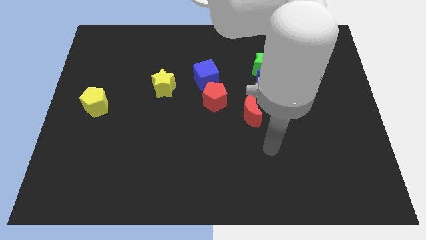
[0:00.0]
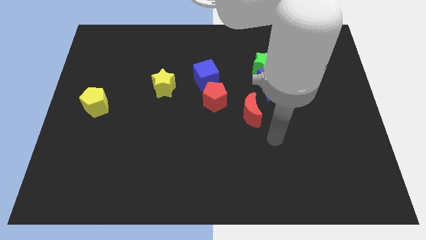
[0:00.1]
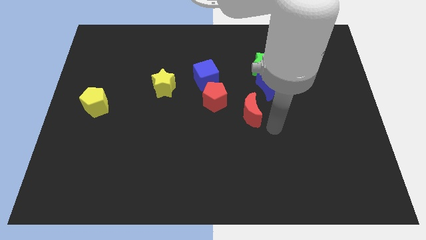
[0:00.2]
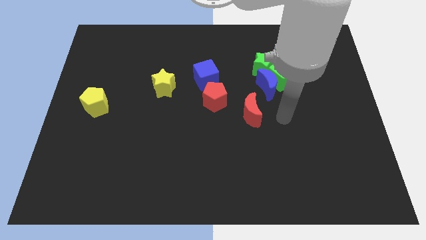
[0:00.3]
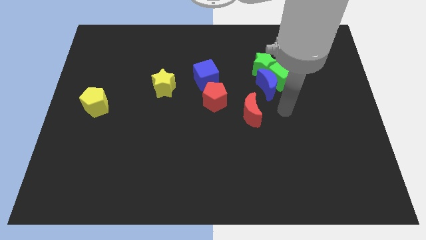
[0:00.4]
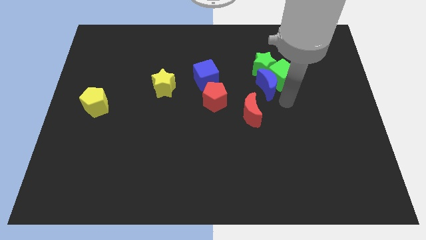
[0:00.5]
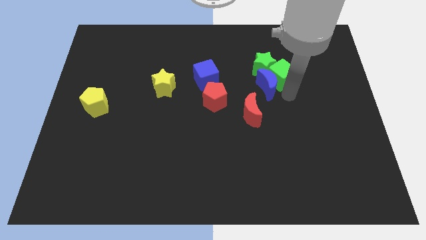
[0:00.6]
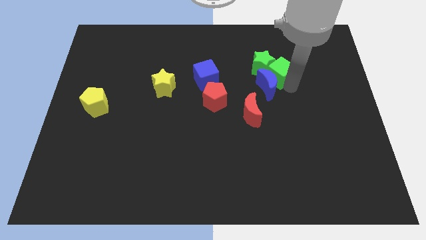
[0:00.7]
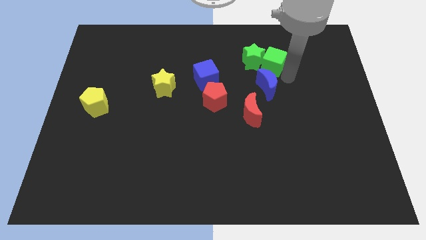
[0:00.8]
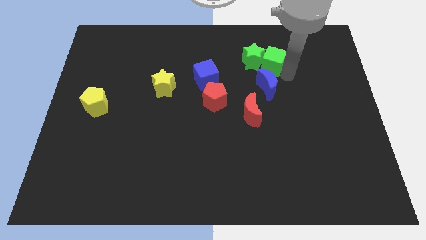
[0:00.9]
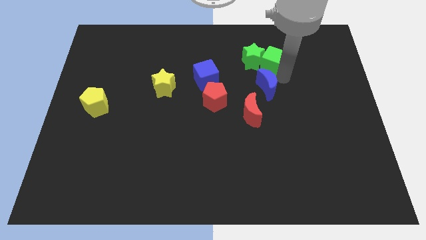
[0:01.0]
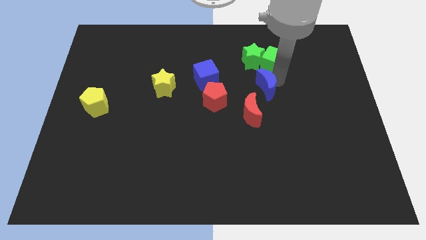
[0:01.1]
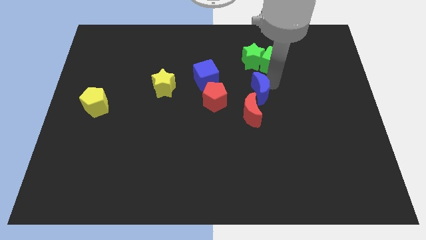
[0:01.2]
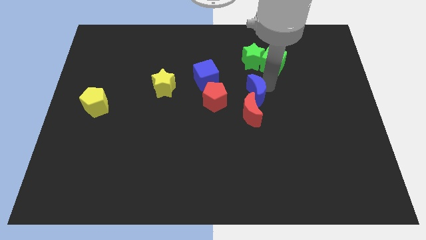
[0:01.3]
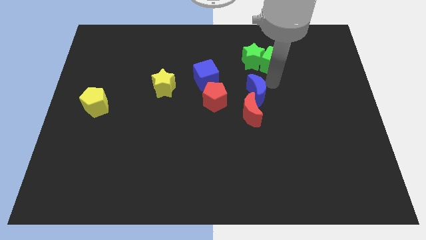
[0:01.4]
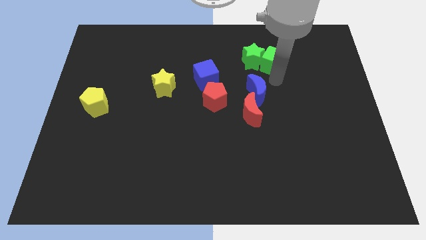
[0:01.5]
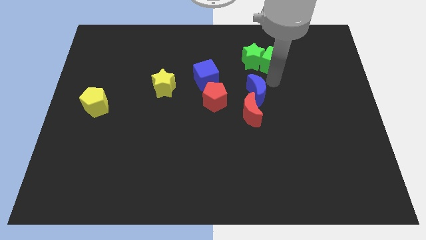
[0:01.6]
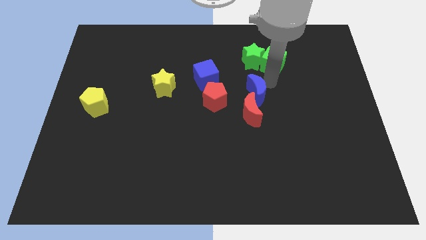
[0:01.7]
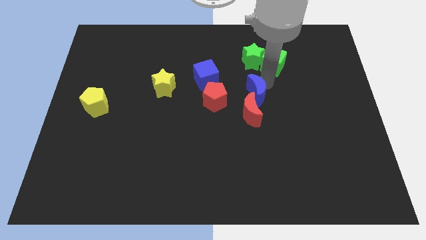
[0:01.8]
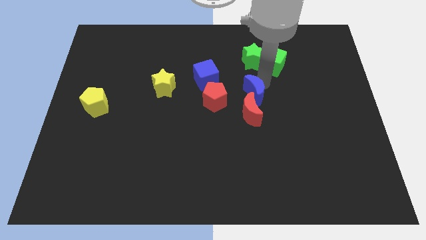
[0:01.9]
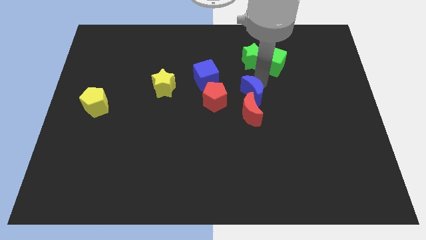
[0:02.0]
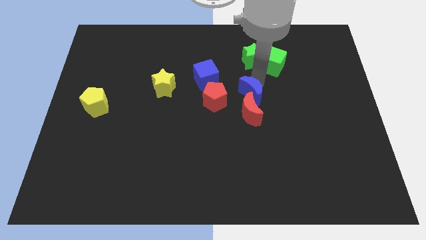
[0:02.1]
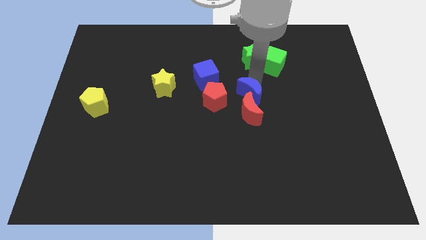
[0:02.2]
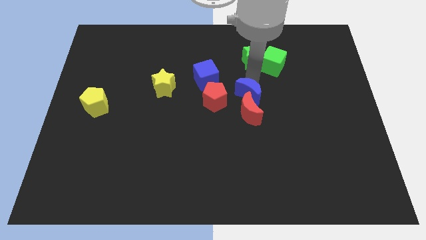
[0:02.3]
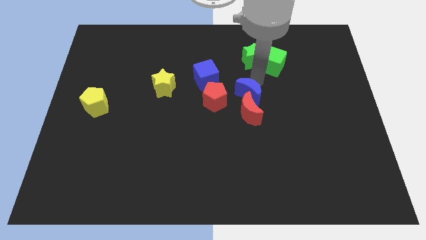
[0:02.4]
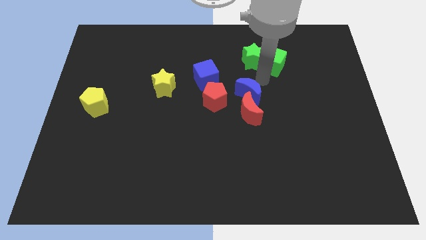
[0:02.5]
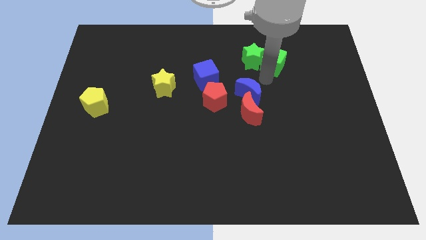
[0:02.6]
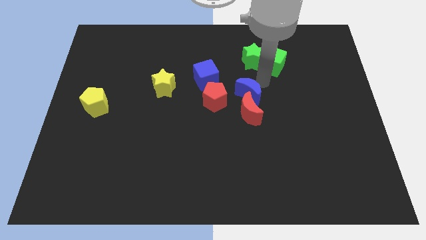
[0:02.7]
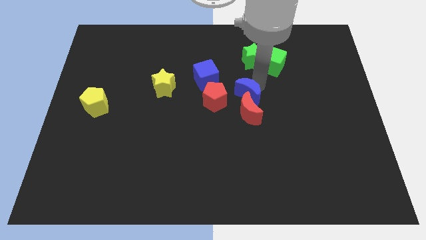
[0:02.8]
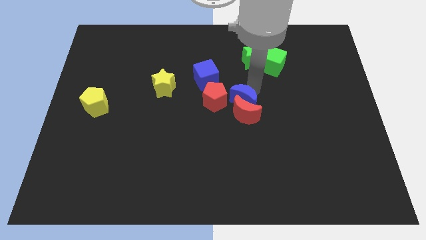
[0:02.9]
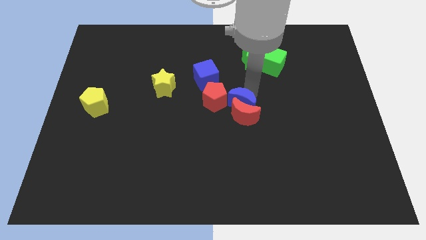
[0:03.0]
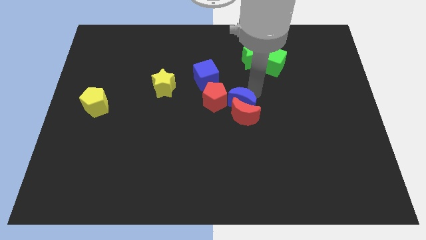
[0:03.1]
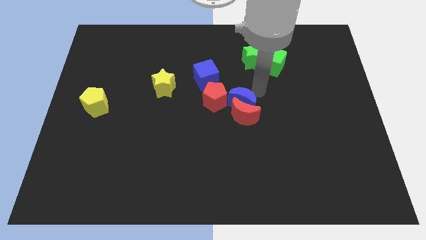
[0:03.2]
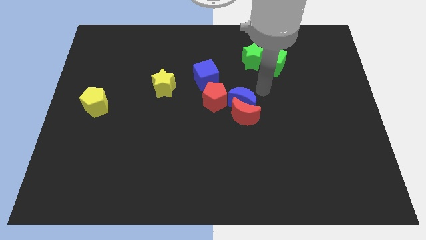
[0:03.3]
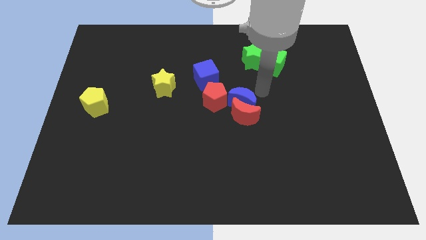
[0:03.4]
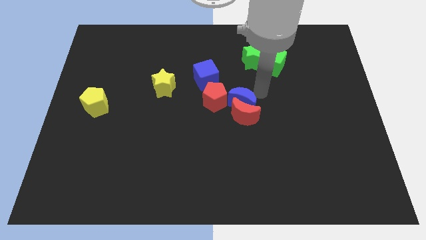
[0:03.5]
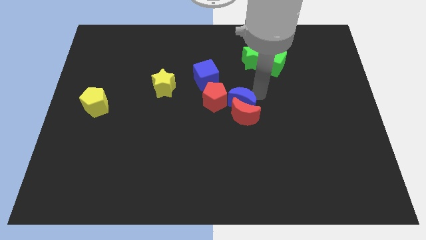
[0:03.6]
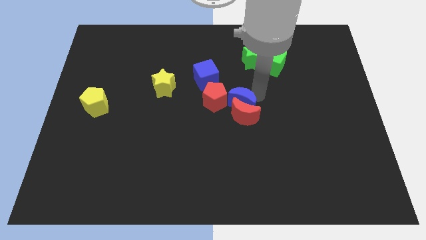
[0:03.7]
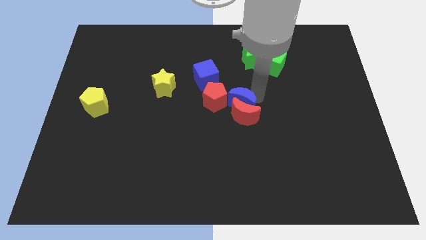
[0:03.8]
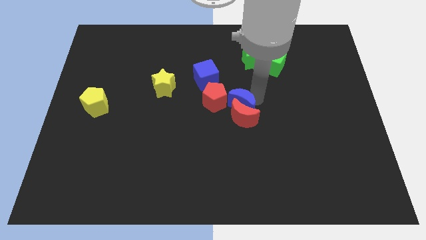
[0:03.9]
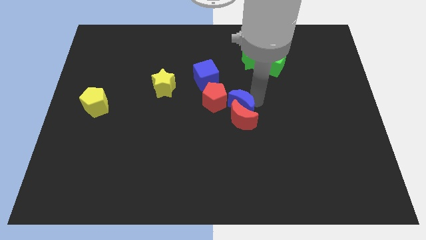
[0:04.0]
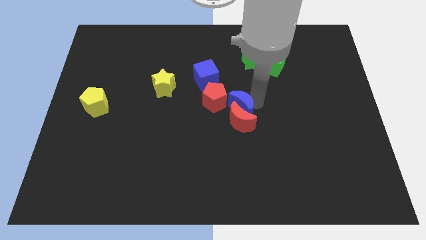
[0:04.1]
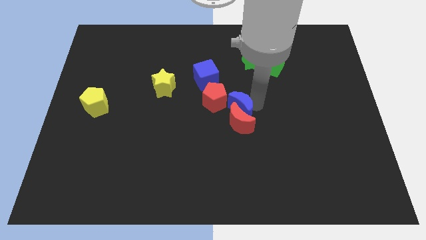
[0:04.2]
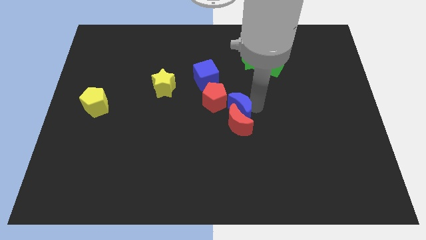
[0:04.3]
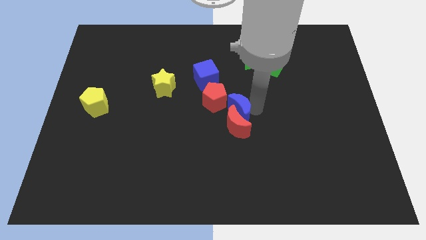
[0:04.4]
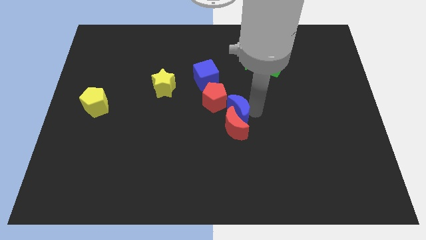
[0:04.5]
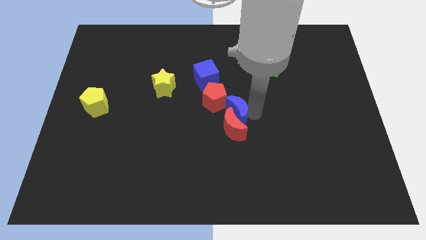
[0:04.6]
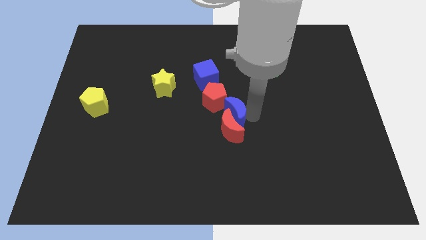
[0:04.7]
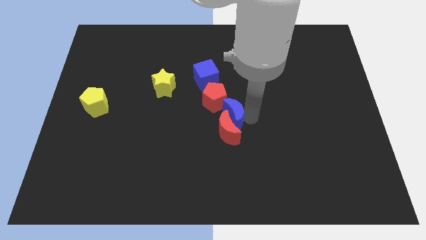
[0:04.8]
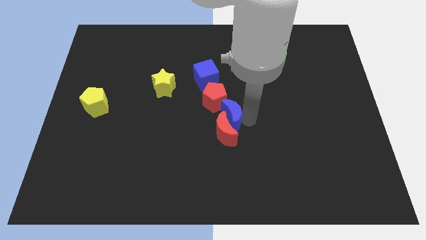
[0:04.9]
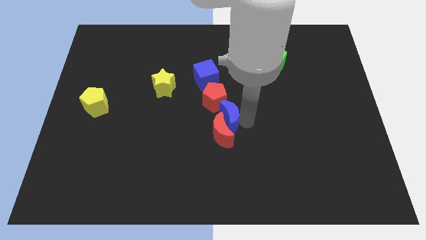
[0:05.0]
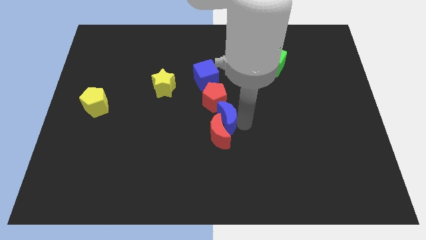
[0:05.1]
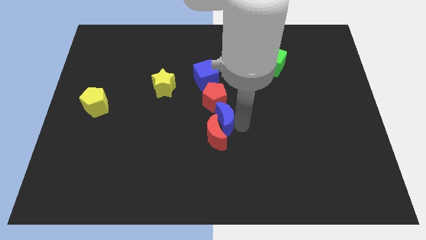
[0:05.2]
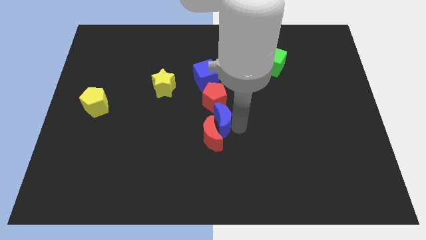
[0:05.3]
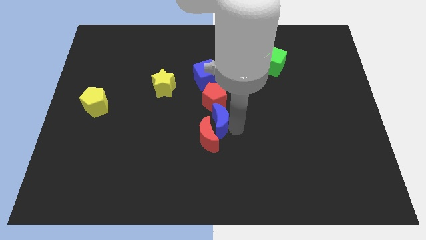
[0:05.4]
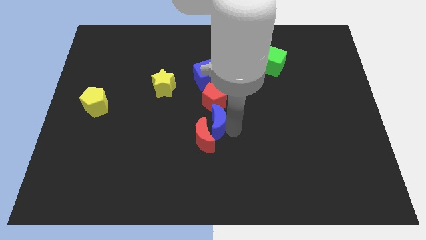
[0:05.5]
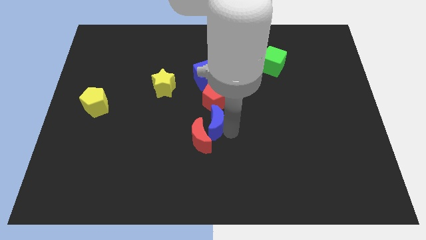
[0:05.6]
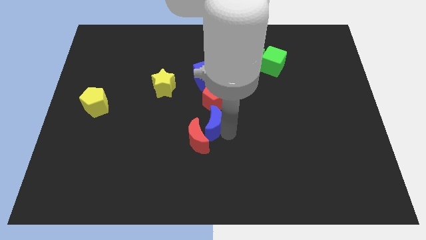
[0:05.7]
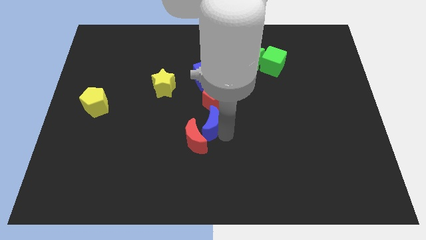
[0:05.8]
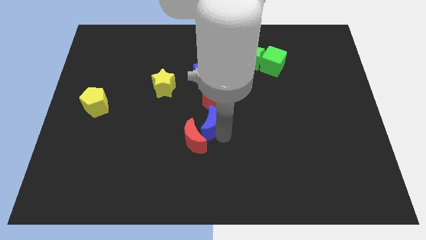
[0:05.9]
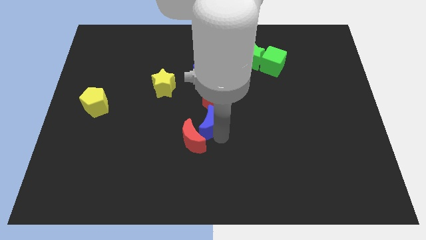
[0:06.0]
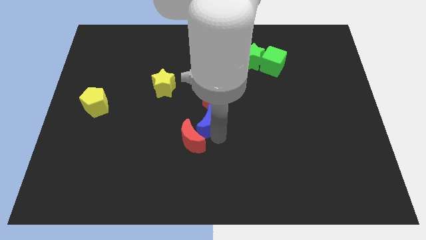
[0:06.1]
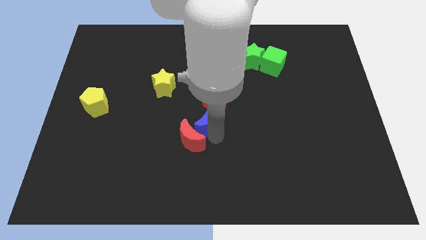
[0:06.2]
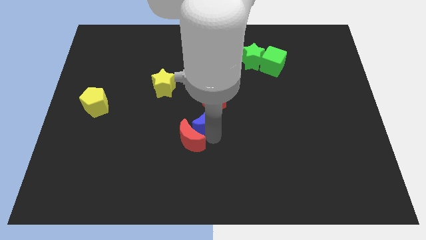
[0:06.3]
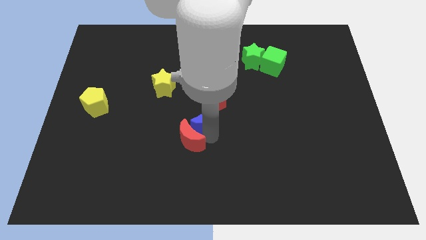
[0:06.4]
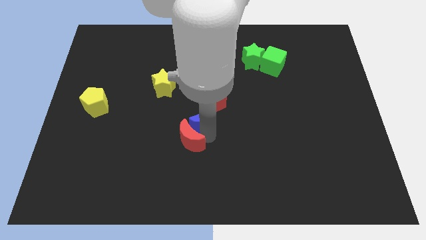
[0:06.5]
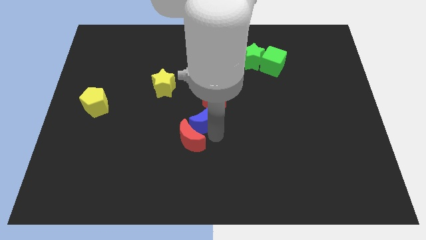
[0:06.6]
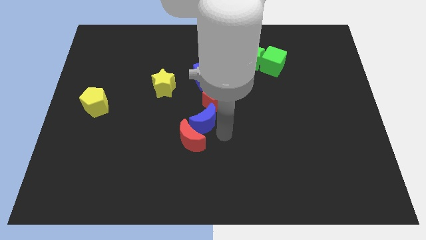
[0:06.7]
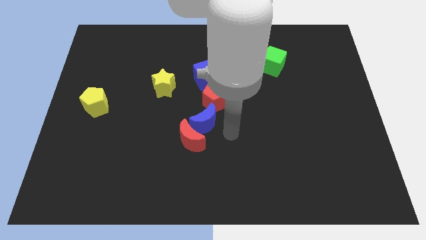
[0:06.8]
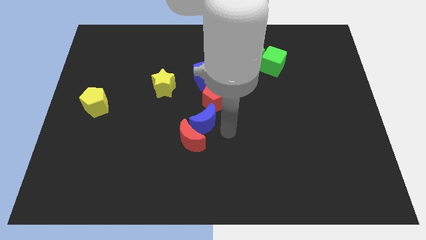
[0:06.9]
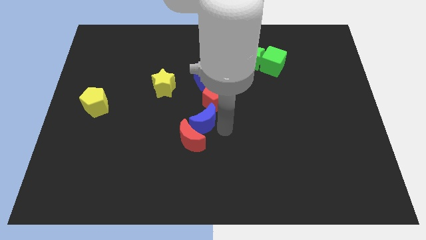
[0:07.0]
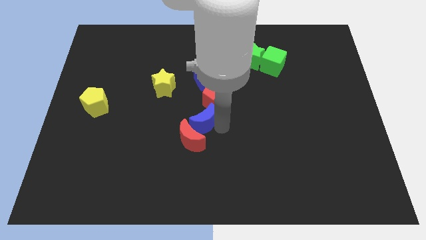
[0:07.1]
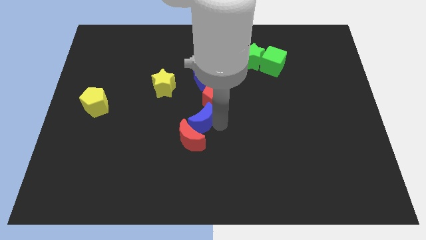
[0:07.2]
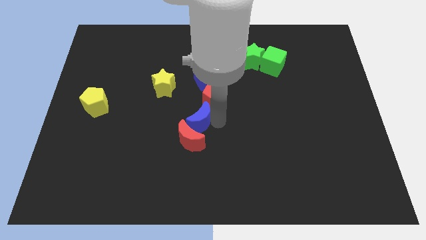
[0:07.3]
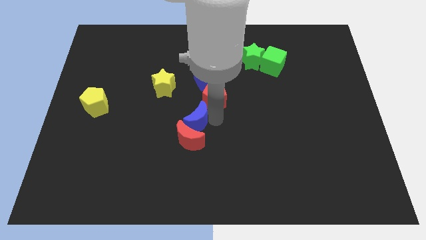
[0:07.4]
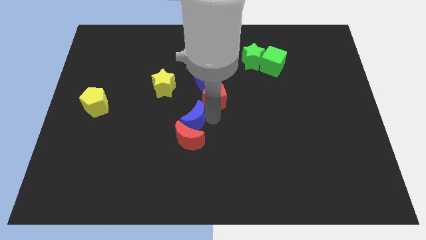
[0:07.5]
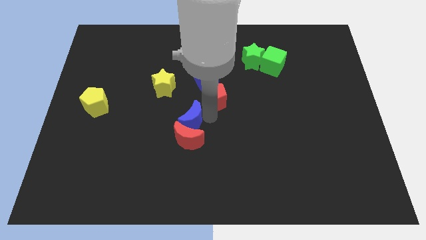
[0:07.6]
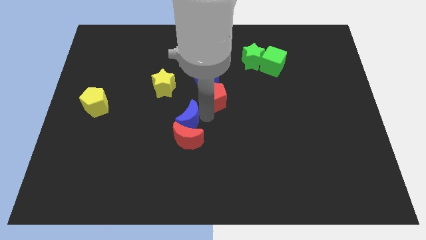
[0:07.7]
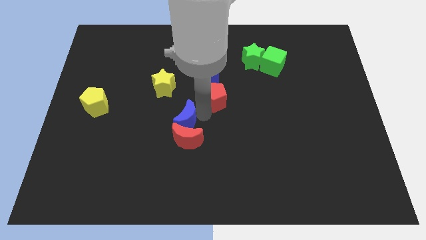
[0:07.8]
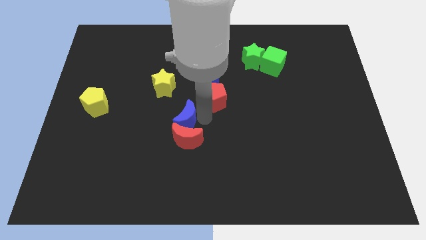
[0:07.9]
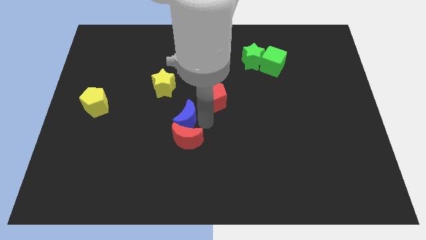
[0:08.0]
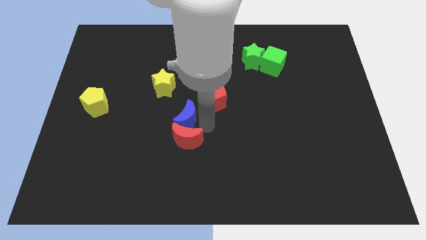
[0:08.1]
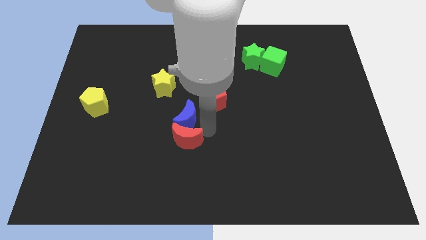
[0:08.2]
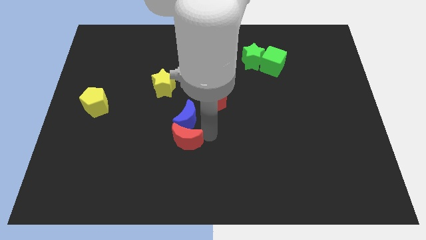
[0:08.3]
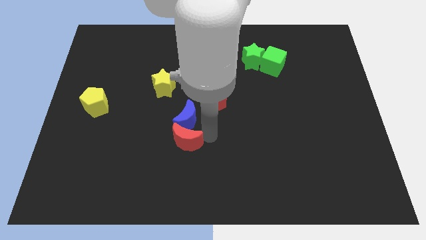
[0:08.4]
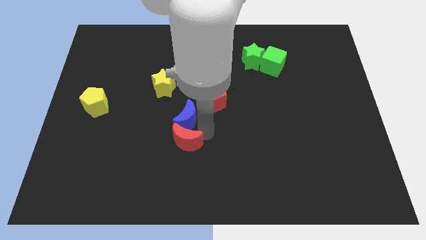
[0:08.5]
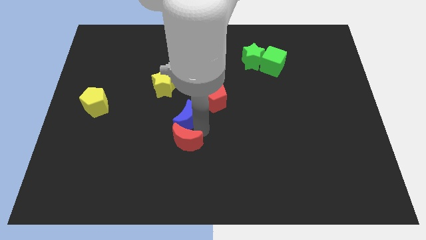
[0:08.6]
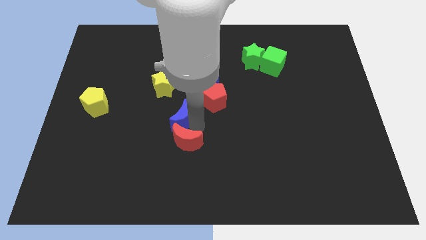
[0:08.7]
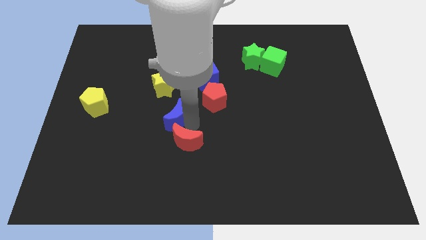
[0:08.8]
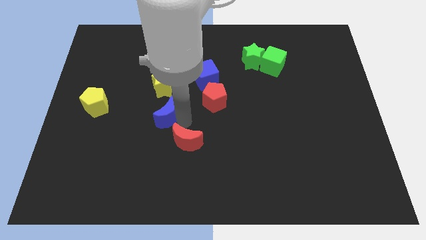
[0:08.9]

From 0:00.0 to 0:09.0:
push the blue moon to the left
